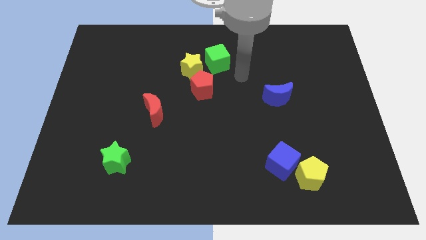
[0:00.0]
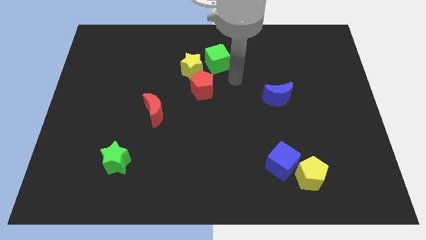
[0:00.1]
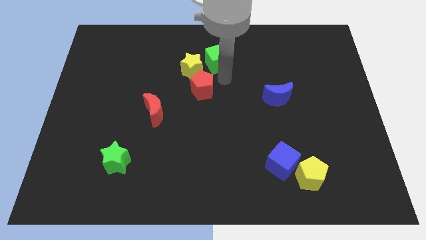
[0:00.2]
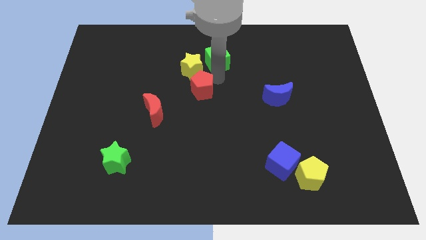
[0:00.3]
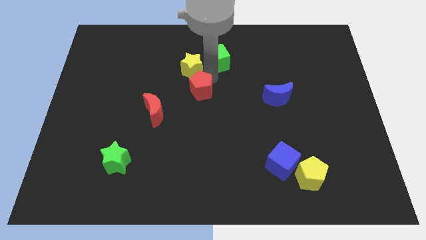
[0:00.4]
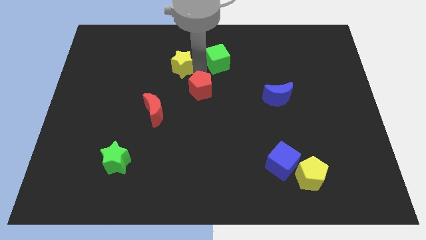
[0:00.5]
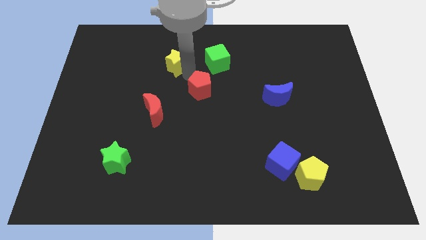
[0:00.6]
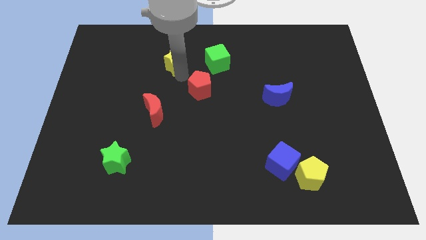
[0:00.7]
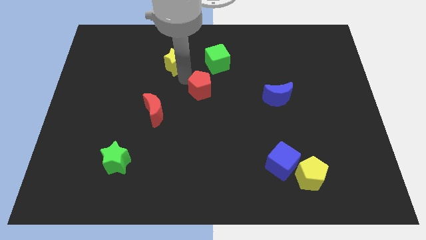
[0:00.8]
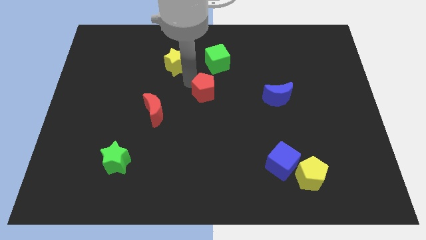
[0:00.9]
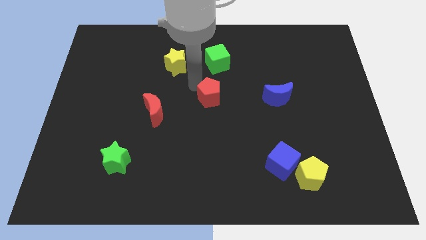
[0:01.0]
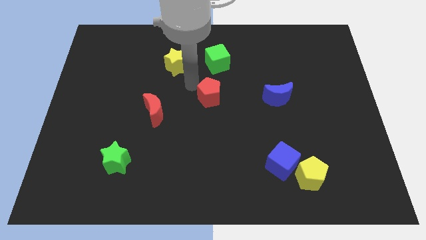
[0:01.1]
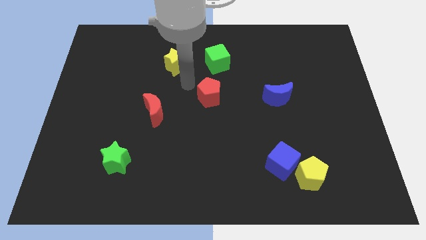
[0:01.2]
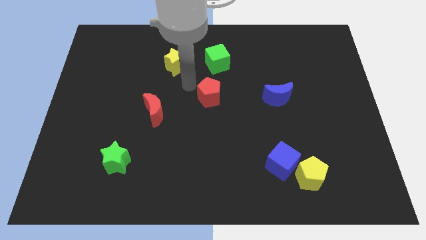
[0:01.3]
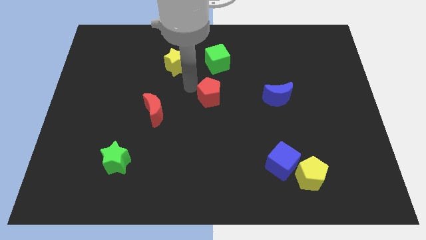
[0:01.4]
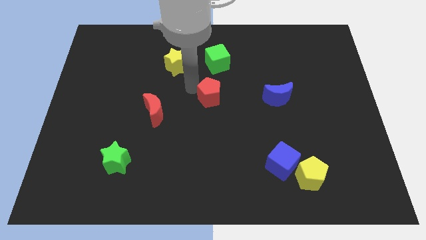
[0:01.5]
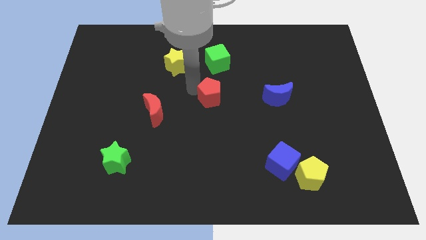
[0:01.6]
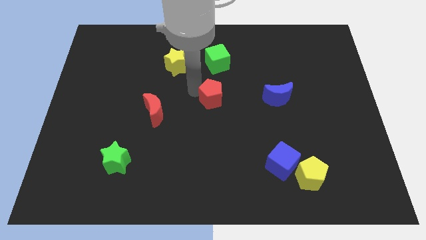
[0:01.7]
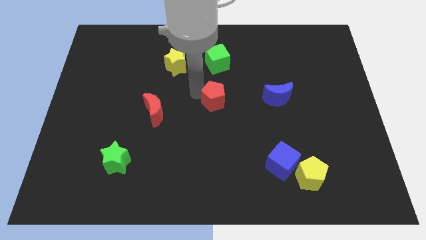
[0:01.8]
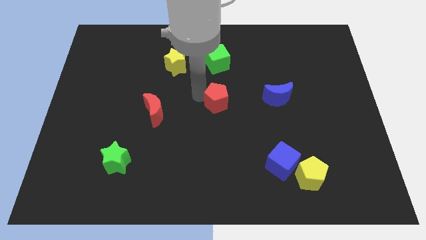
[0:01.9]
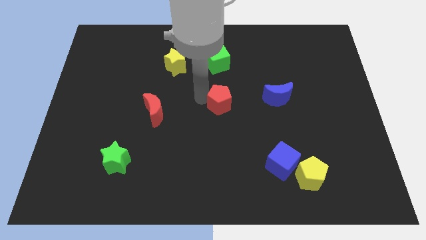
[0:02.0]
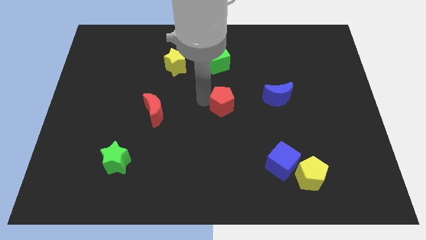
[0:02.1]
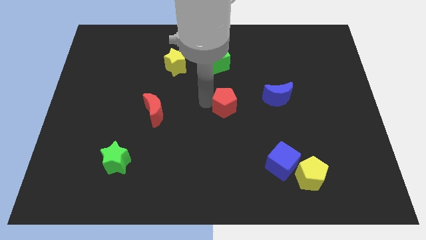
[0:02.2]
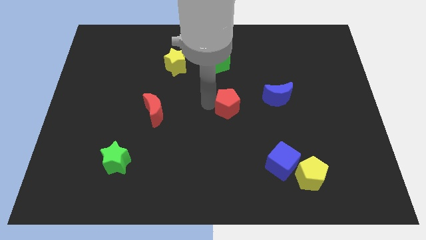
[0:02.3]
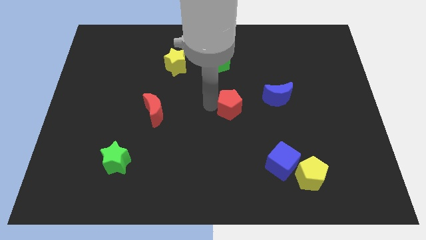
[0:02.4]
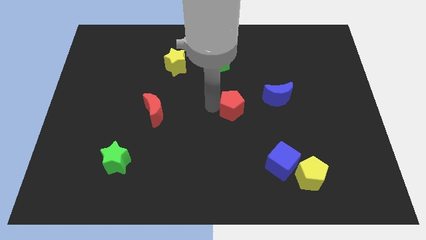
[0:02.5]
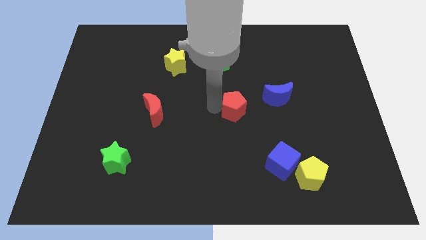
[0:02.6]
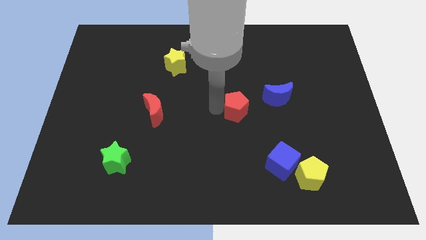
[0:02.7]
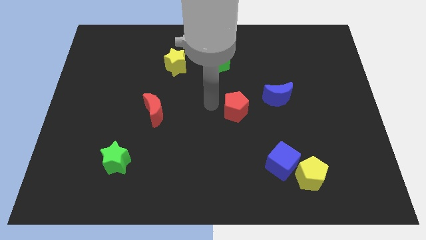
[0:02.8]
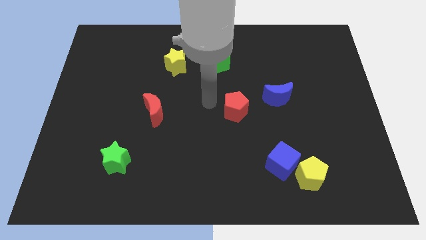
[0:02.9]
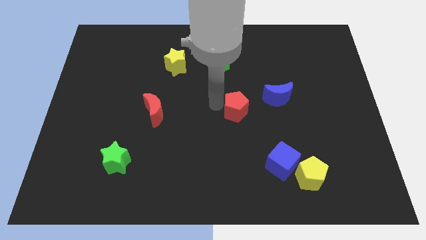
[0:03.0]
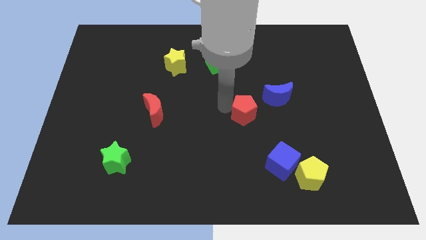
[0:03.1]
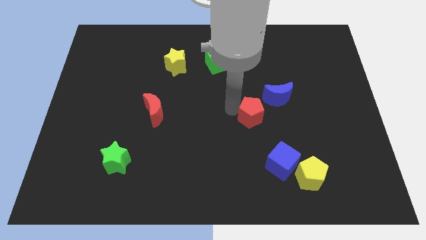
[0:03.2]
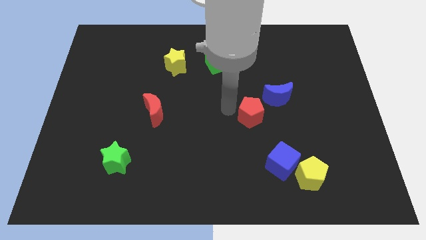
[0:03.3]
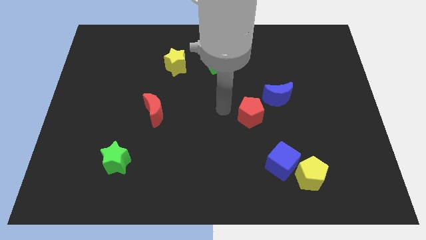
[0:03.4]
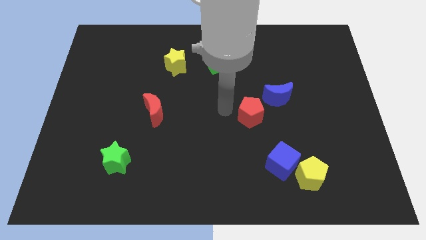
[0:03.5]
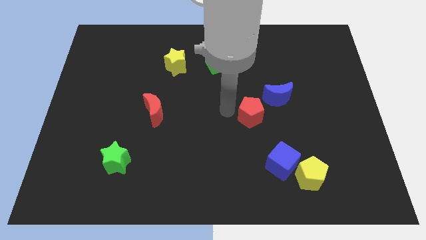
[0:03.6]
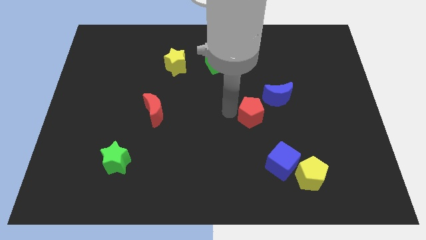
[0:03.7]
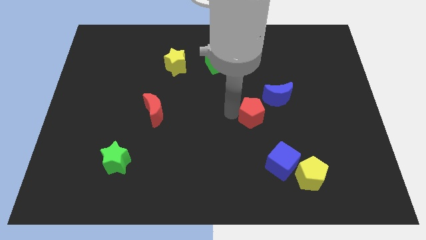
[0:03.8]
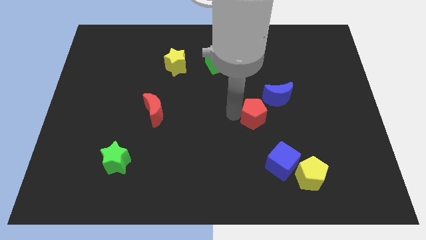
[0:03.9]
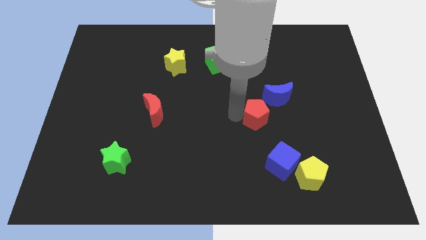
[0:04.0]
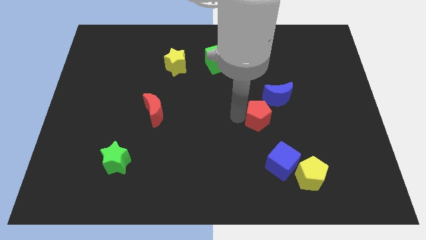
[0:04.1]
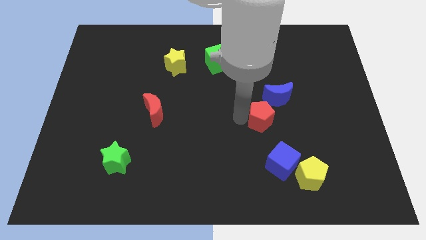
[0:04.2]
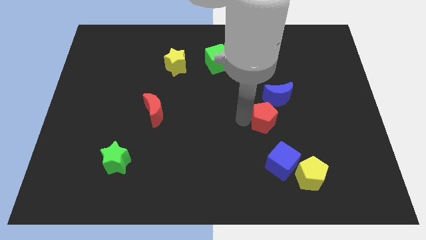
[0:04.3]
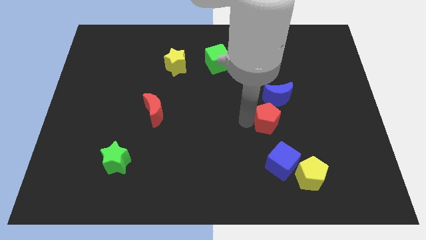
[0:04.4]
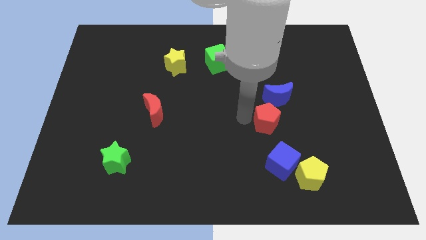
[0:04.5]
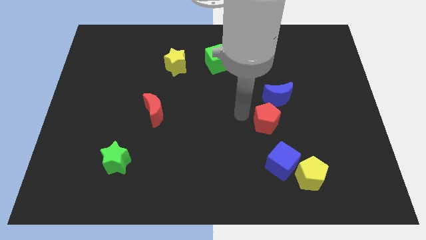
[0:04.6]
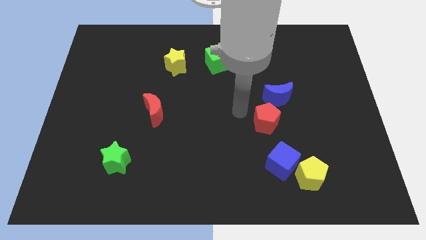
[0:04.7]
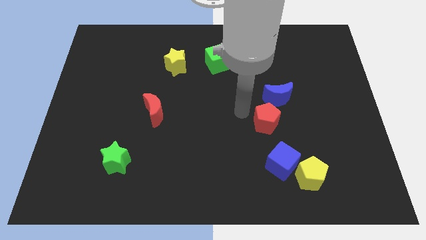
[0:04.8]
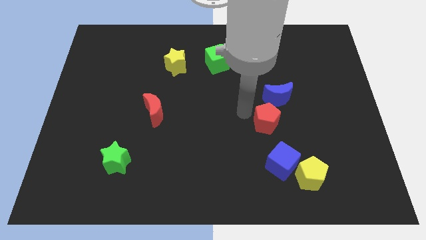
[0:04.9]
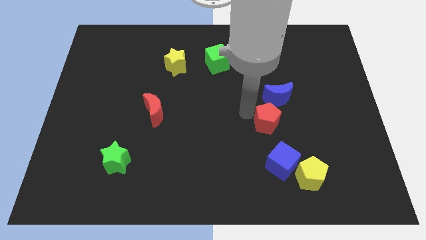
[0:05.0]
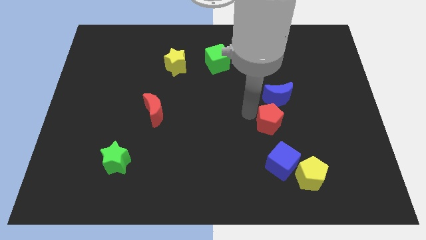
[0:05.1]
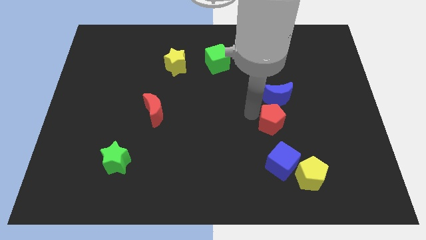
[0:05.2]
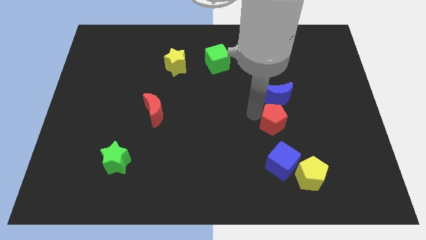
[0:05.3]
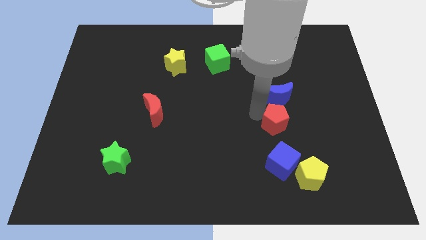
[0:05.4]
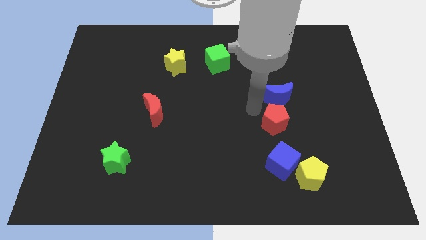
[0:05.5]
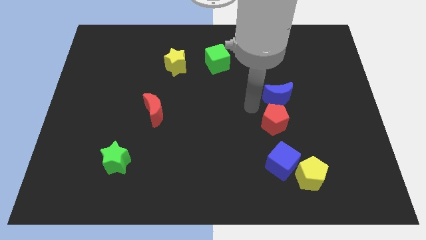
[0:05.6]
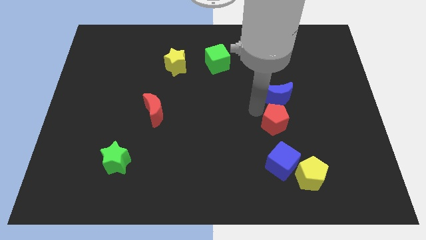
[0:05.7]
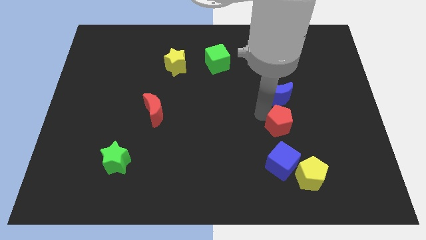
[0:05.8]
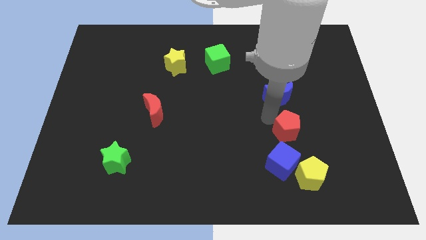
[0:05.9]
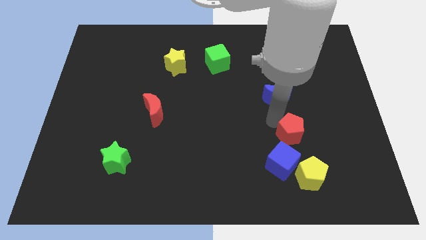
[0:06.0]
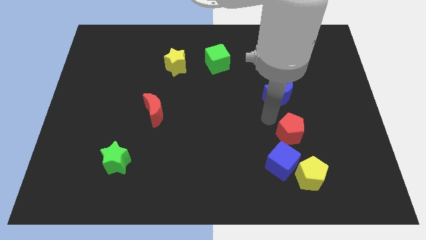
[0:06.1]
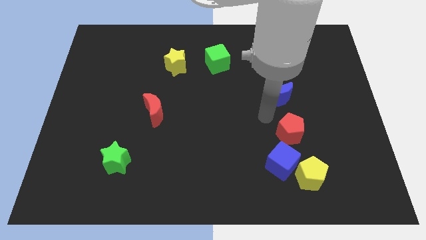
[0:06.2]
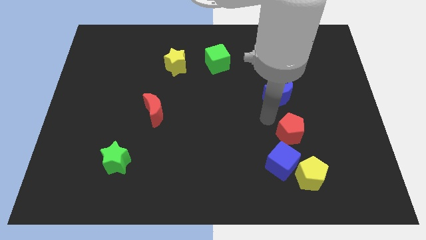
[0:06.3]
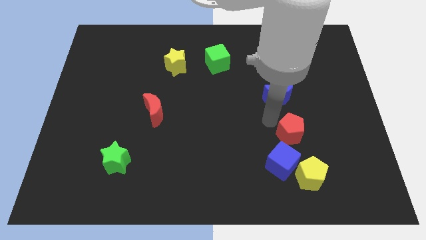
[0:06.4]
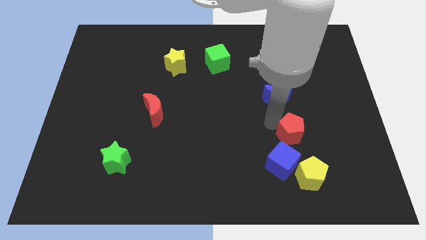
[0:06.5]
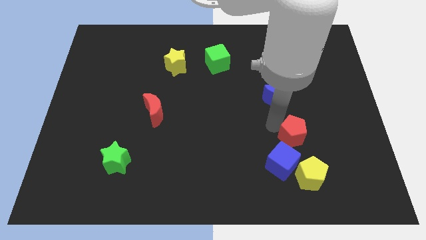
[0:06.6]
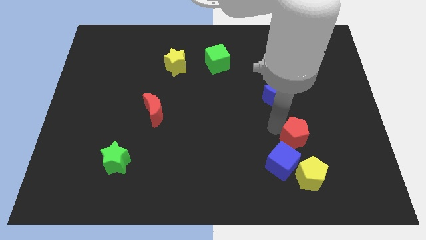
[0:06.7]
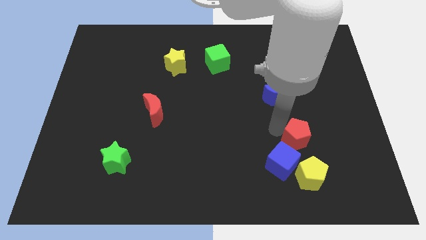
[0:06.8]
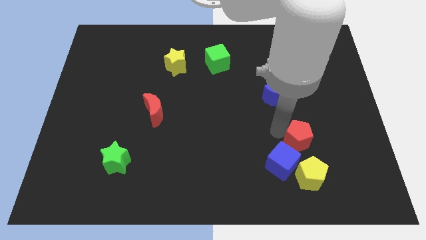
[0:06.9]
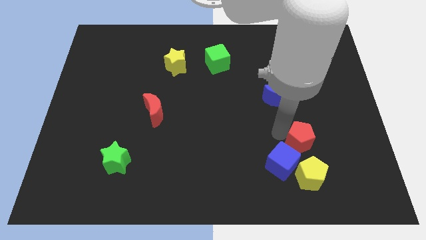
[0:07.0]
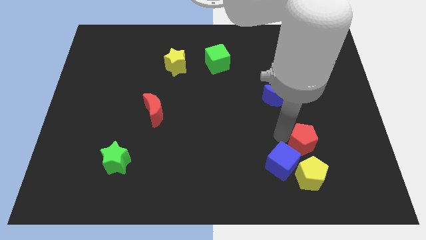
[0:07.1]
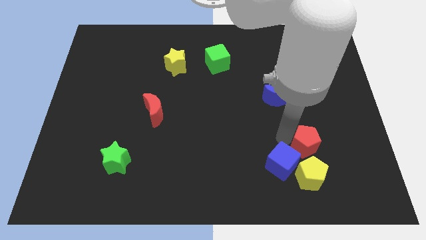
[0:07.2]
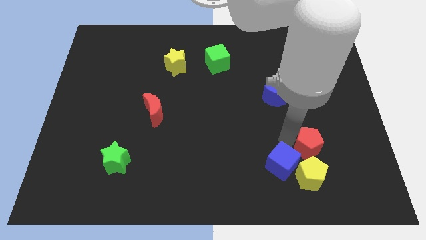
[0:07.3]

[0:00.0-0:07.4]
put the red pentagon to the top right side of the yellow pentagon
